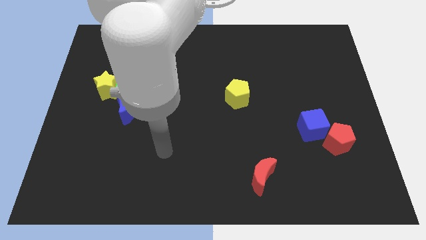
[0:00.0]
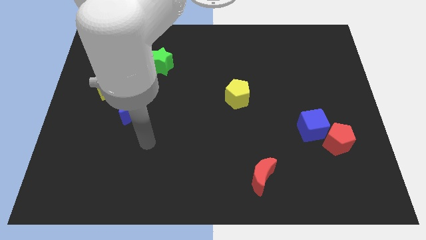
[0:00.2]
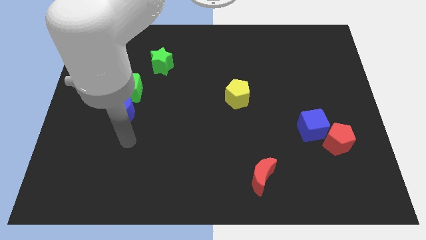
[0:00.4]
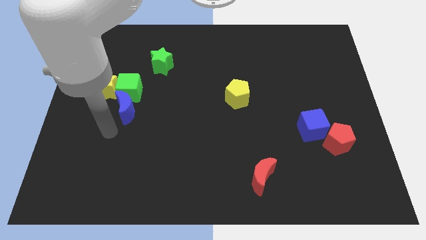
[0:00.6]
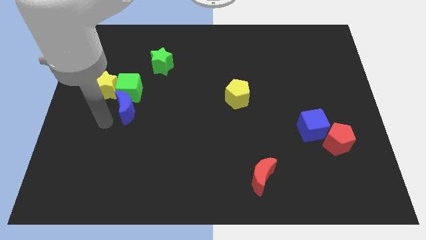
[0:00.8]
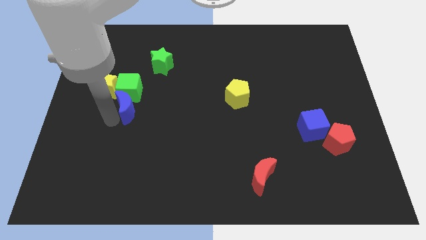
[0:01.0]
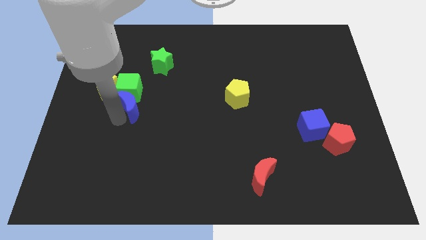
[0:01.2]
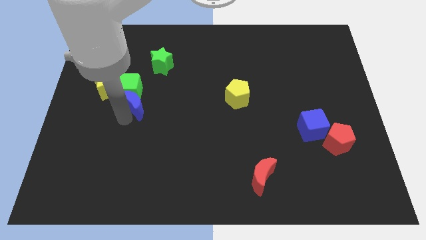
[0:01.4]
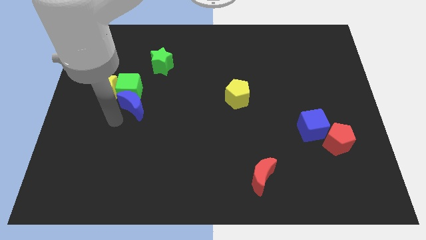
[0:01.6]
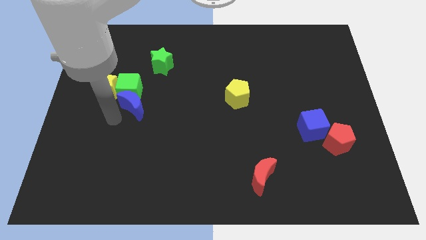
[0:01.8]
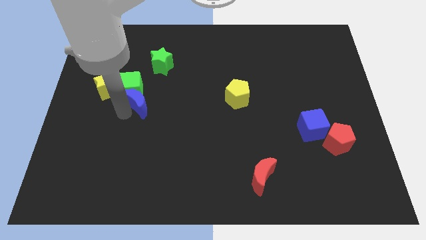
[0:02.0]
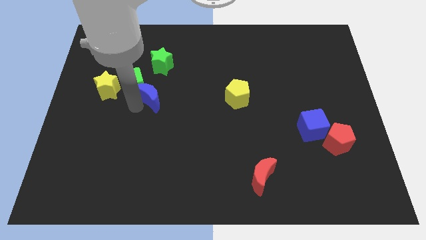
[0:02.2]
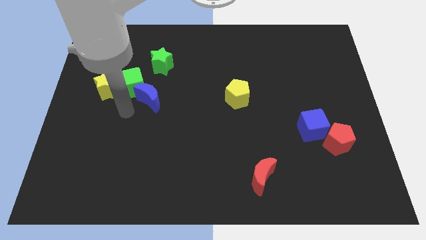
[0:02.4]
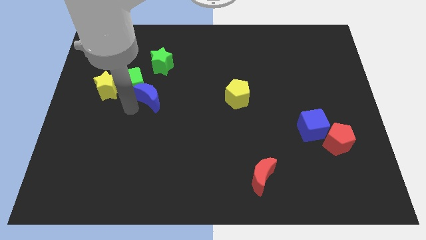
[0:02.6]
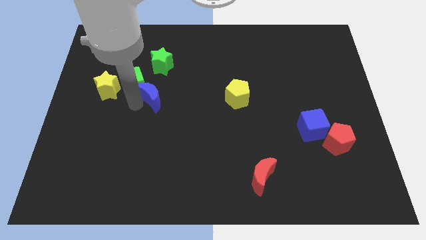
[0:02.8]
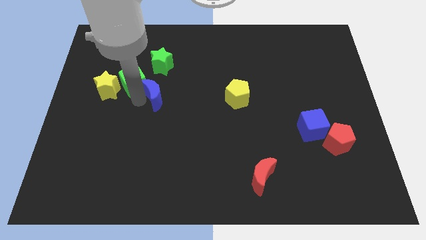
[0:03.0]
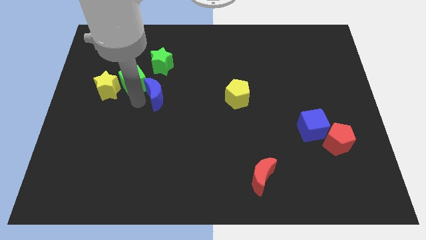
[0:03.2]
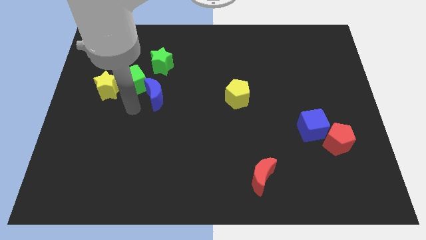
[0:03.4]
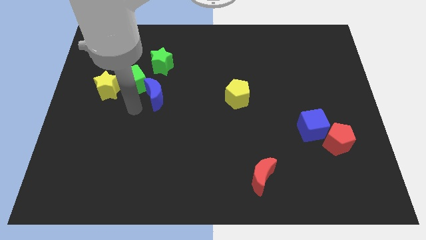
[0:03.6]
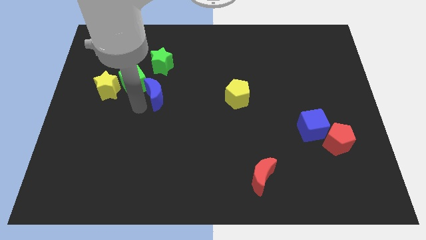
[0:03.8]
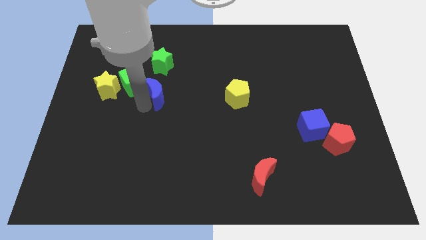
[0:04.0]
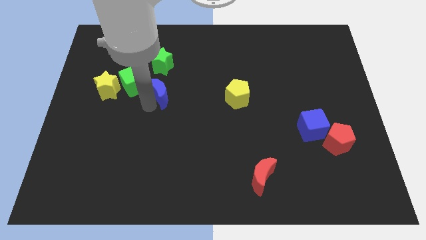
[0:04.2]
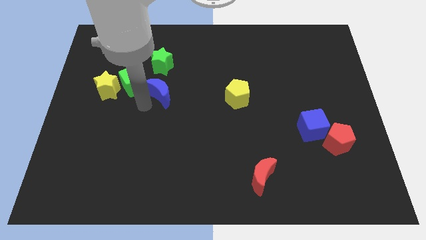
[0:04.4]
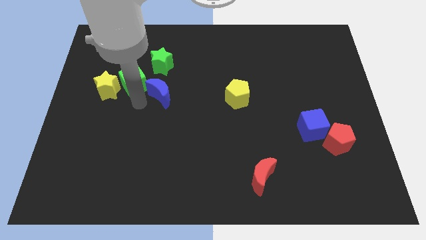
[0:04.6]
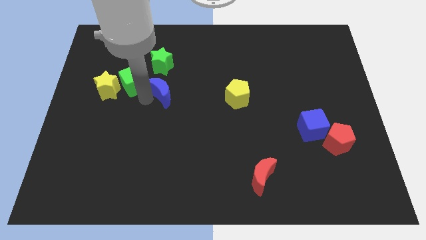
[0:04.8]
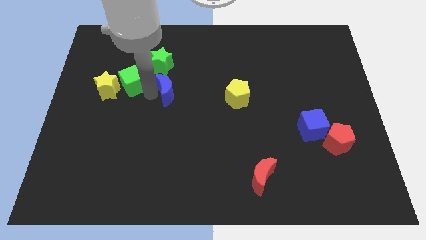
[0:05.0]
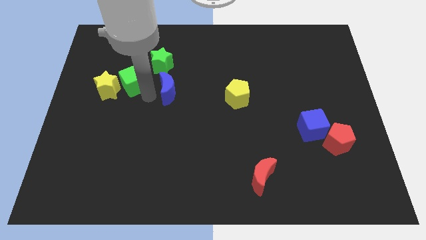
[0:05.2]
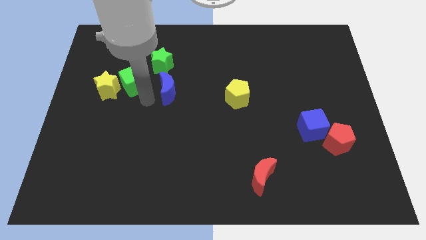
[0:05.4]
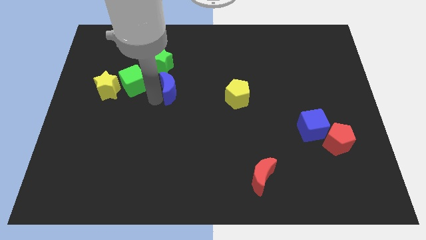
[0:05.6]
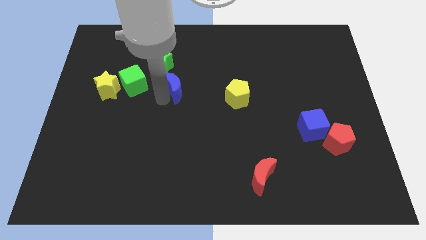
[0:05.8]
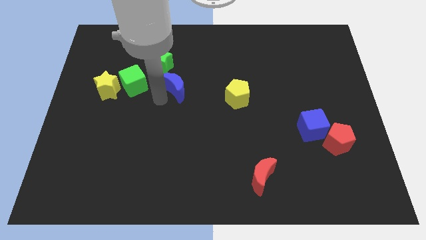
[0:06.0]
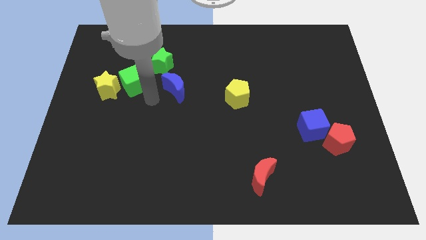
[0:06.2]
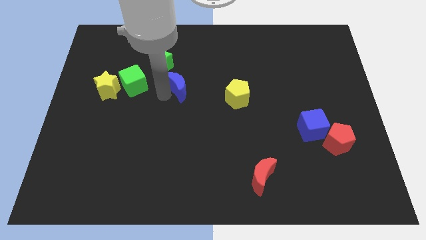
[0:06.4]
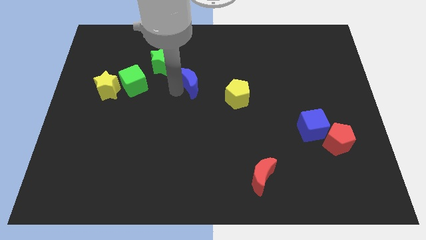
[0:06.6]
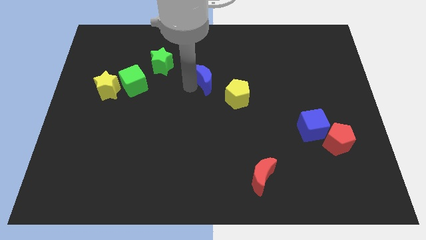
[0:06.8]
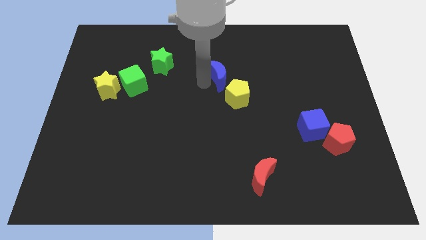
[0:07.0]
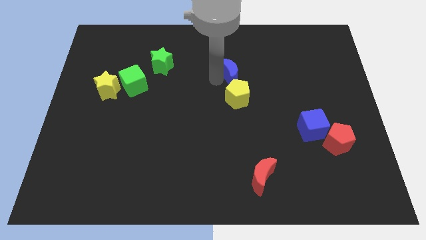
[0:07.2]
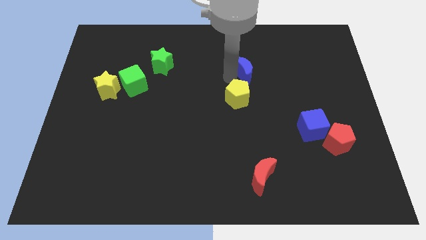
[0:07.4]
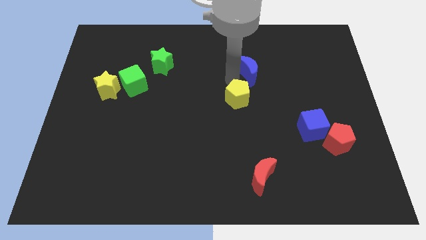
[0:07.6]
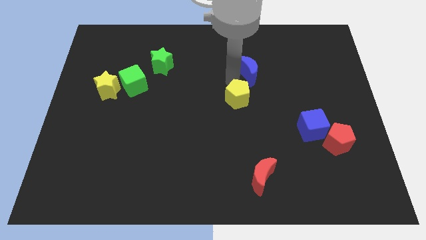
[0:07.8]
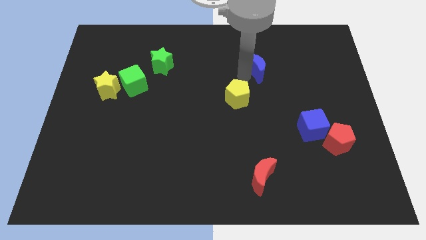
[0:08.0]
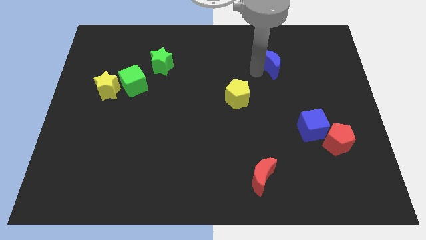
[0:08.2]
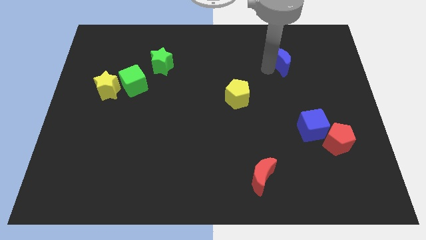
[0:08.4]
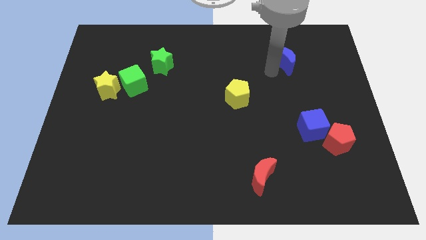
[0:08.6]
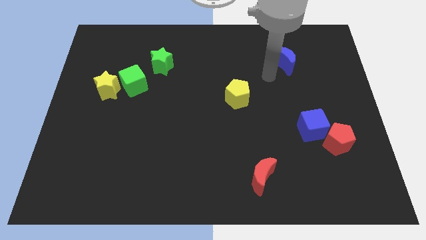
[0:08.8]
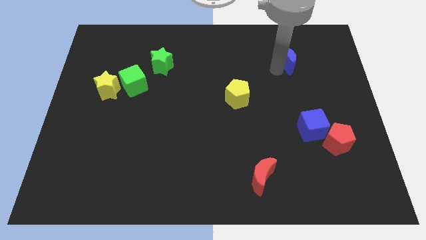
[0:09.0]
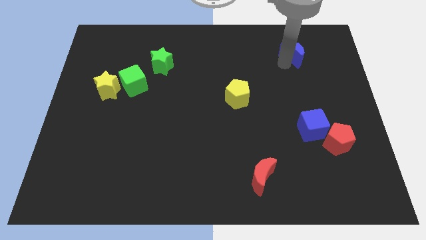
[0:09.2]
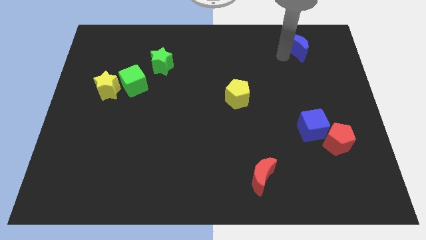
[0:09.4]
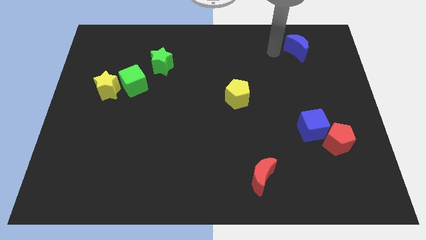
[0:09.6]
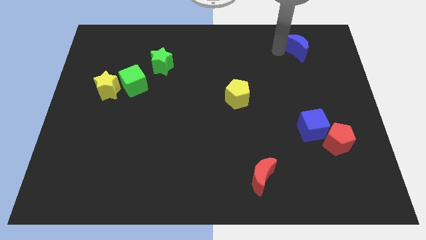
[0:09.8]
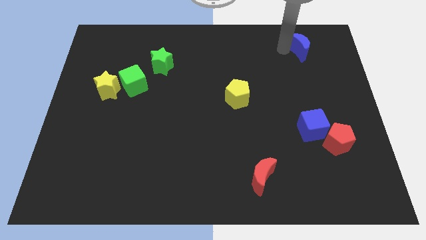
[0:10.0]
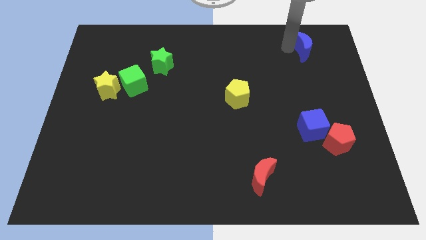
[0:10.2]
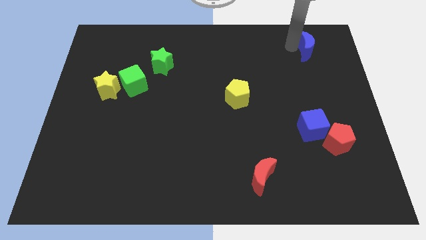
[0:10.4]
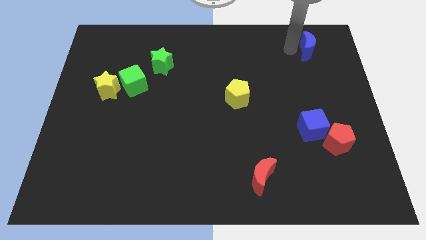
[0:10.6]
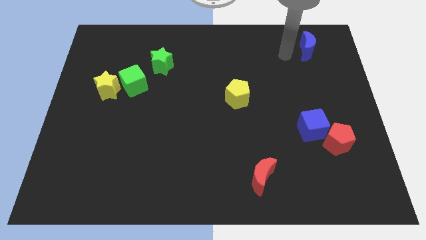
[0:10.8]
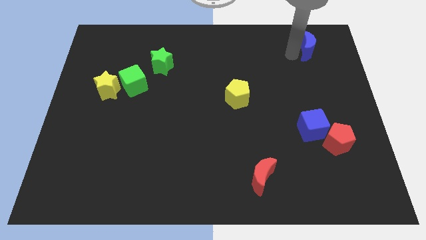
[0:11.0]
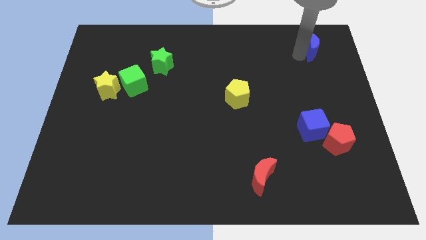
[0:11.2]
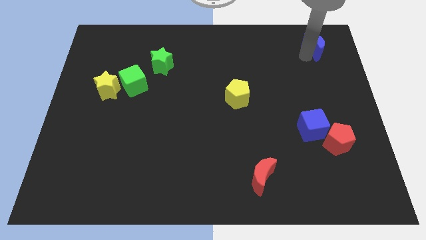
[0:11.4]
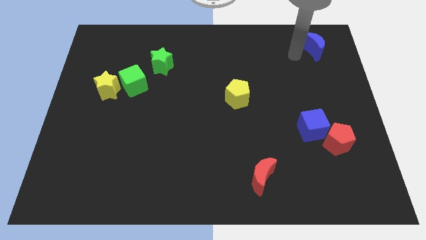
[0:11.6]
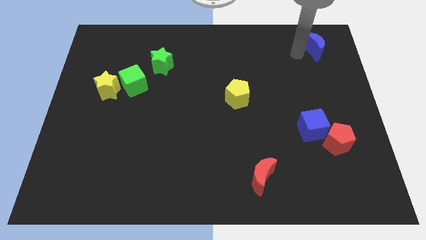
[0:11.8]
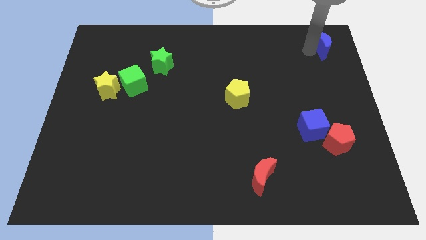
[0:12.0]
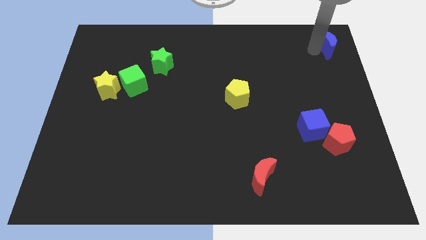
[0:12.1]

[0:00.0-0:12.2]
put the blue moon to the top right of the board

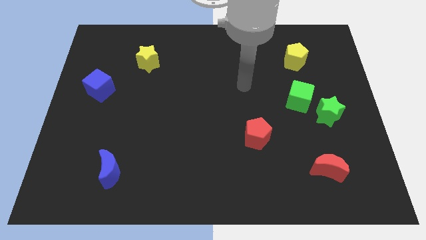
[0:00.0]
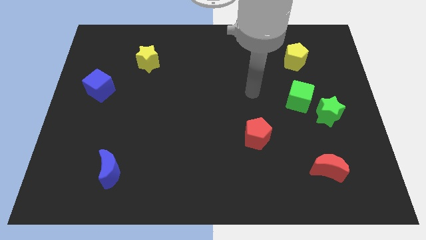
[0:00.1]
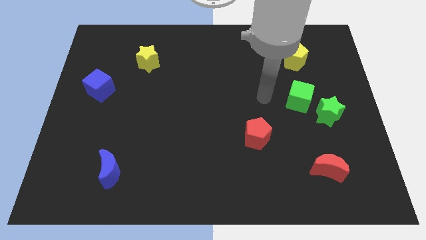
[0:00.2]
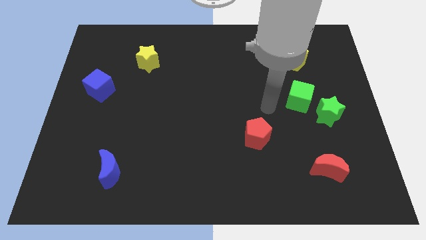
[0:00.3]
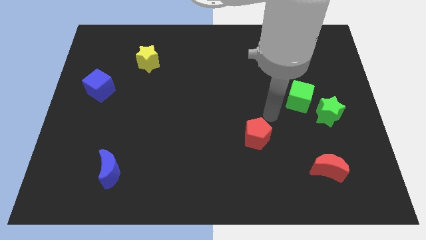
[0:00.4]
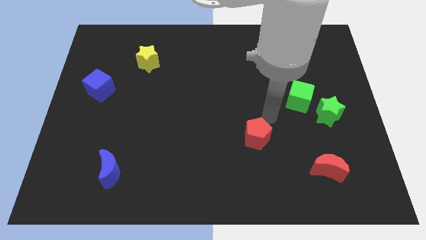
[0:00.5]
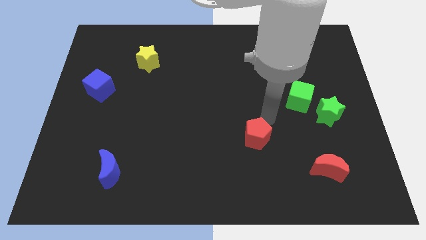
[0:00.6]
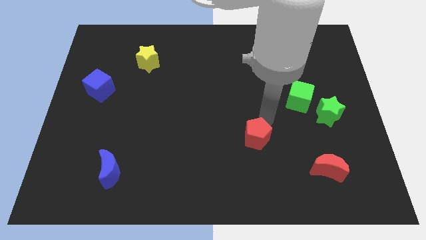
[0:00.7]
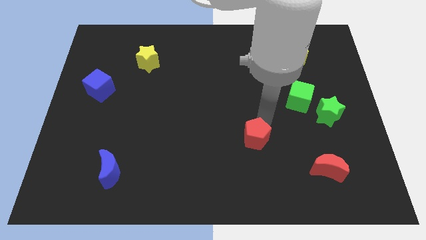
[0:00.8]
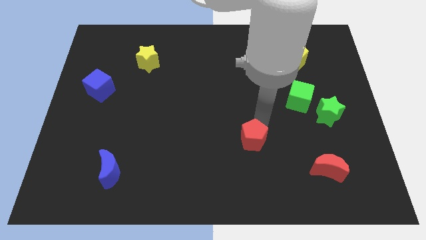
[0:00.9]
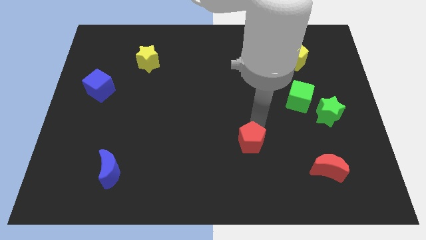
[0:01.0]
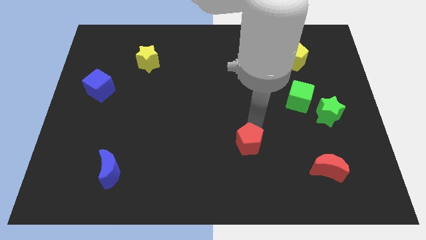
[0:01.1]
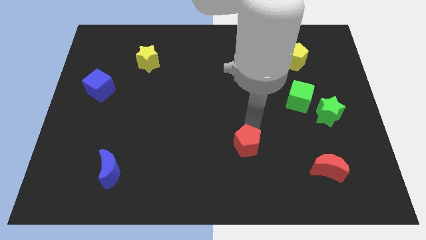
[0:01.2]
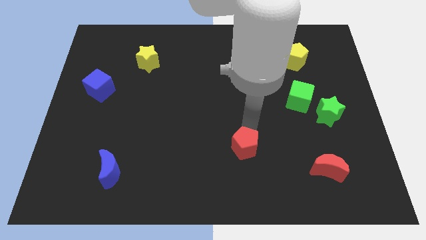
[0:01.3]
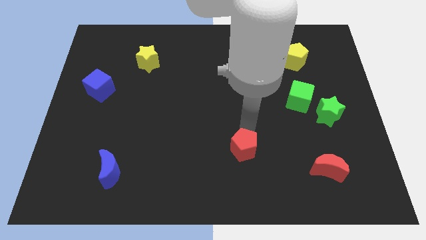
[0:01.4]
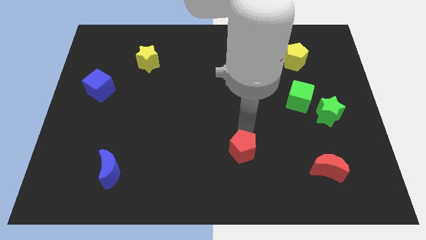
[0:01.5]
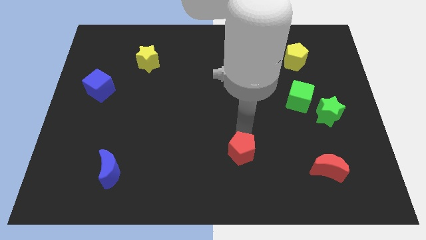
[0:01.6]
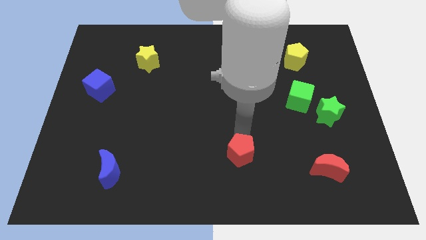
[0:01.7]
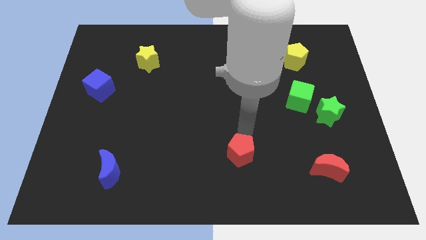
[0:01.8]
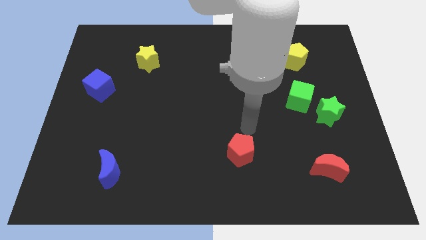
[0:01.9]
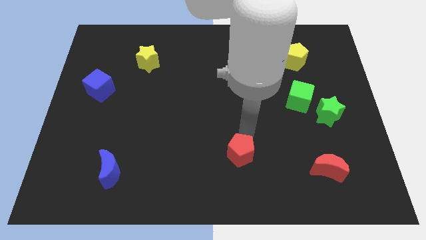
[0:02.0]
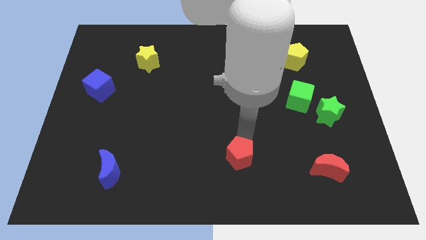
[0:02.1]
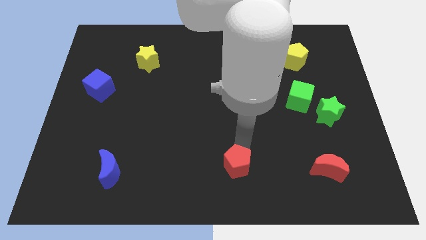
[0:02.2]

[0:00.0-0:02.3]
put the red pentagon to the bottom side
